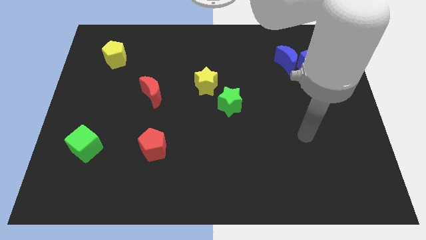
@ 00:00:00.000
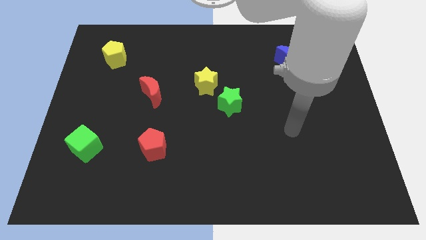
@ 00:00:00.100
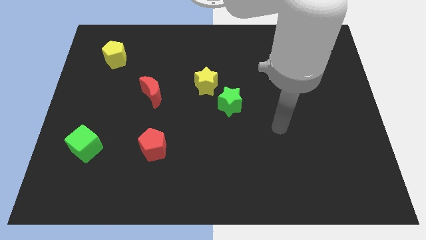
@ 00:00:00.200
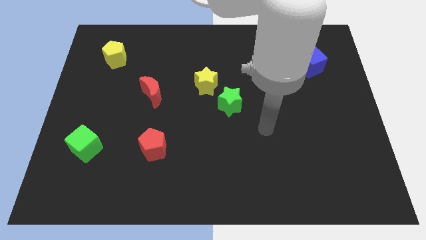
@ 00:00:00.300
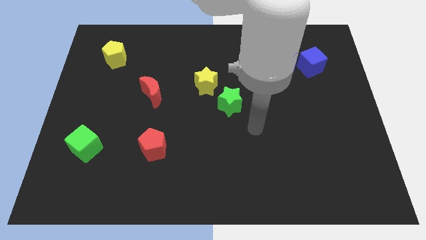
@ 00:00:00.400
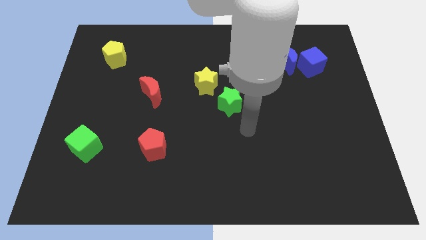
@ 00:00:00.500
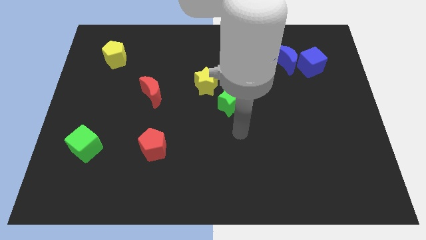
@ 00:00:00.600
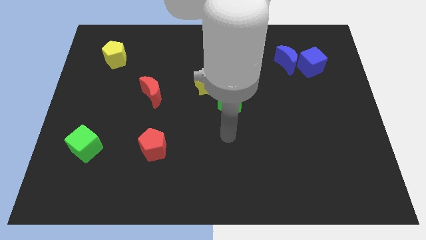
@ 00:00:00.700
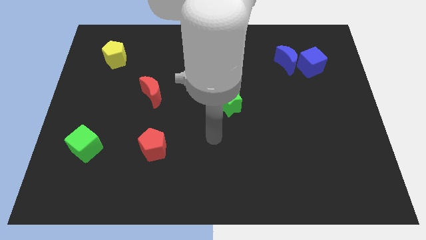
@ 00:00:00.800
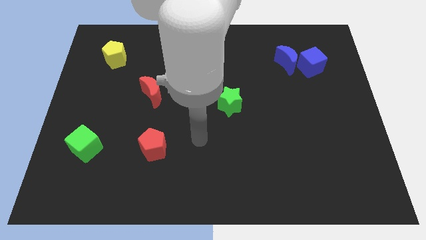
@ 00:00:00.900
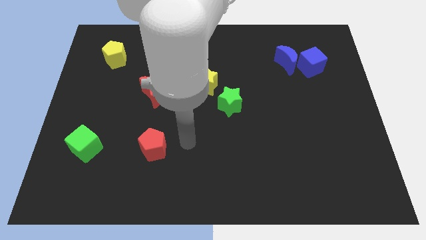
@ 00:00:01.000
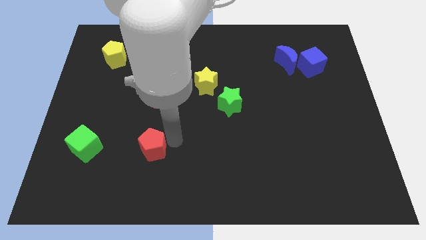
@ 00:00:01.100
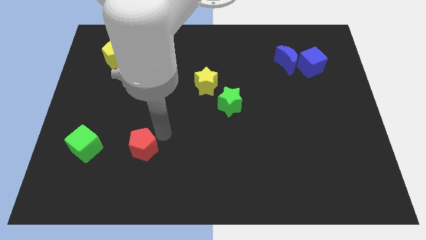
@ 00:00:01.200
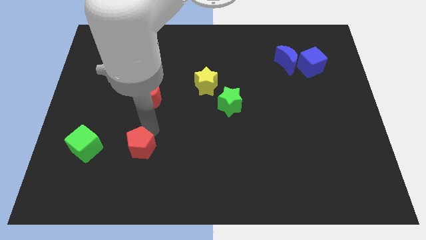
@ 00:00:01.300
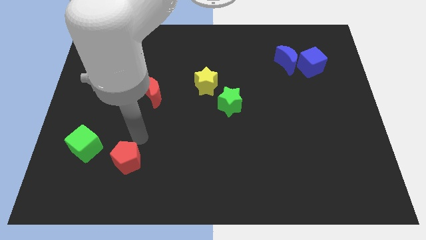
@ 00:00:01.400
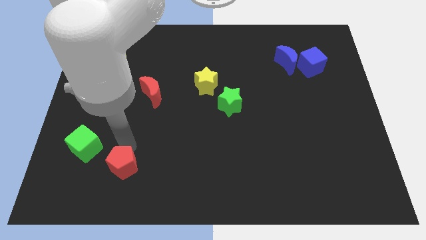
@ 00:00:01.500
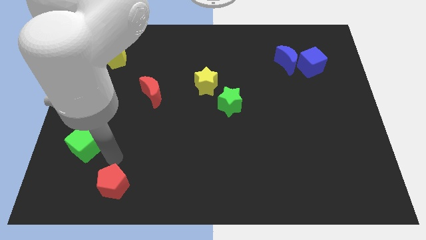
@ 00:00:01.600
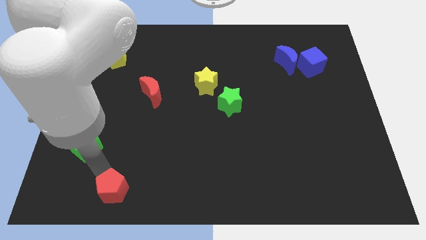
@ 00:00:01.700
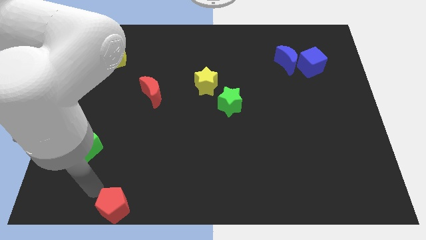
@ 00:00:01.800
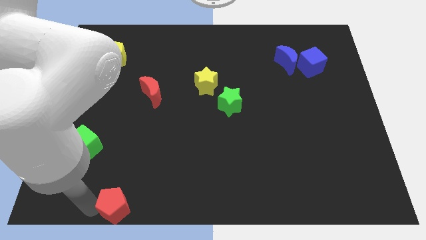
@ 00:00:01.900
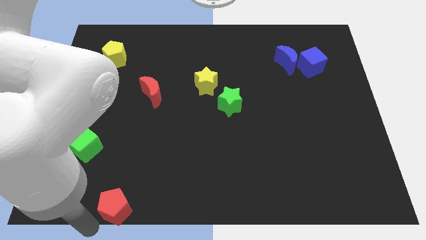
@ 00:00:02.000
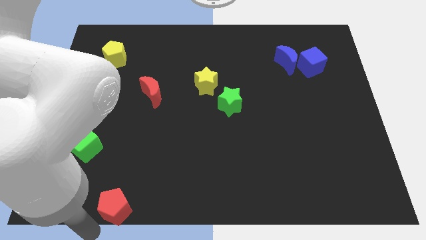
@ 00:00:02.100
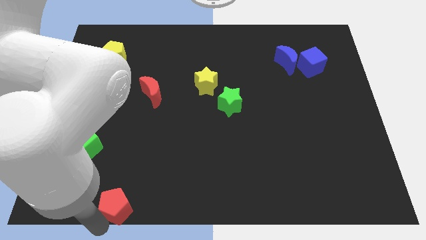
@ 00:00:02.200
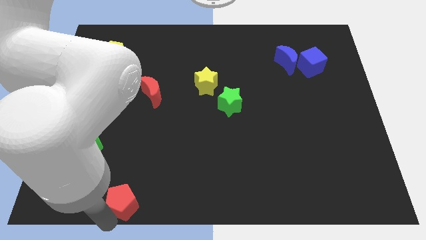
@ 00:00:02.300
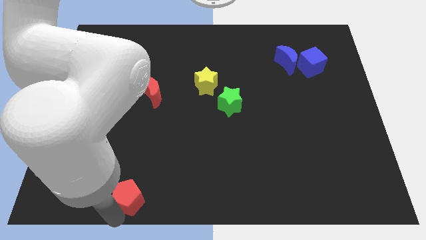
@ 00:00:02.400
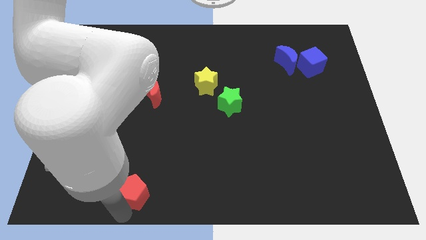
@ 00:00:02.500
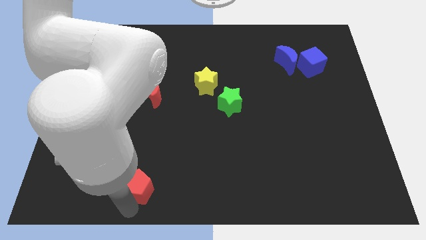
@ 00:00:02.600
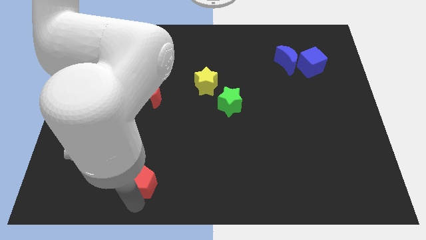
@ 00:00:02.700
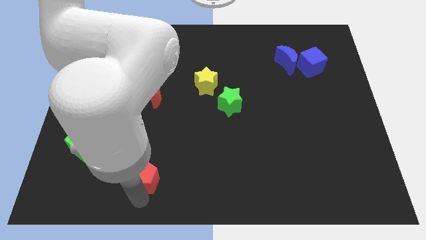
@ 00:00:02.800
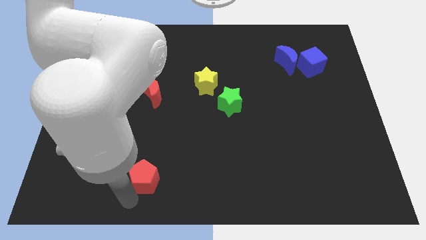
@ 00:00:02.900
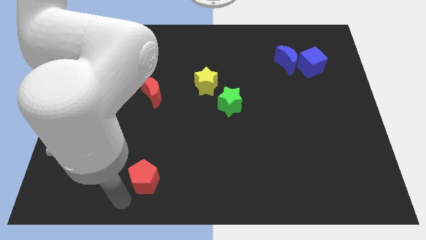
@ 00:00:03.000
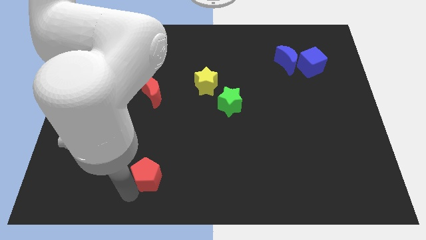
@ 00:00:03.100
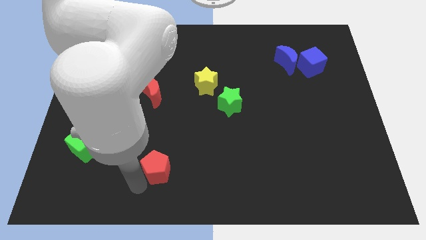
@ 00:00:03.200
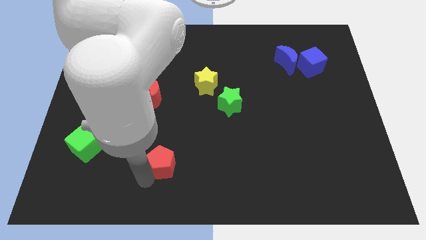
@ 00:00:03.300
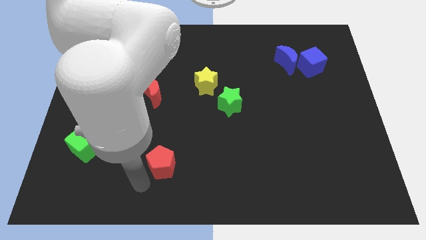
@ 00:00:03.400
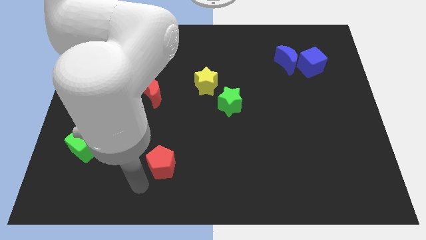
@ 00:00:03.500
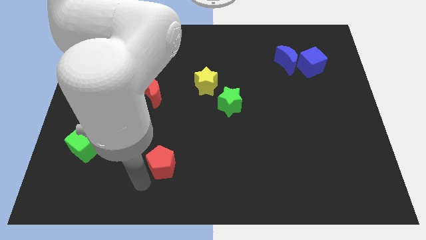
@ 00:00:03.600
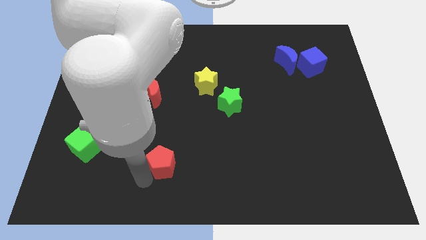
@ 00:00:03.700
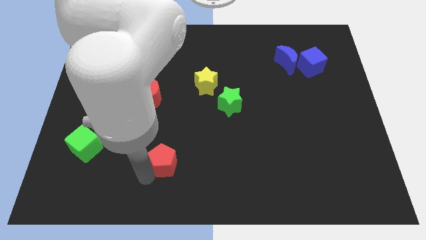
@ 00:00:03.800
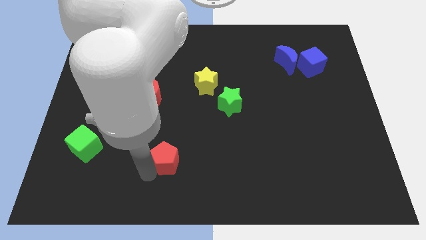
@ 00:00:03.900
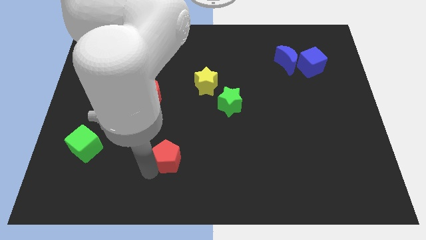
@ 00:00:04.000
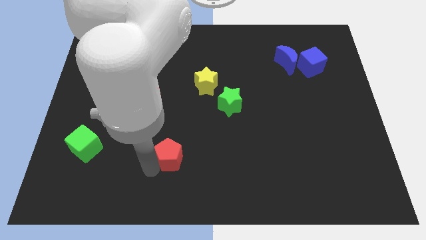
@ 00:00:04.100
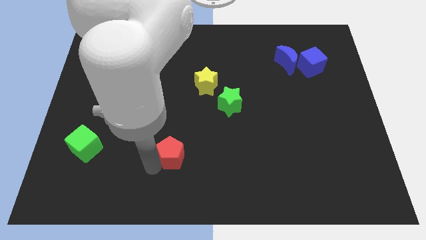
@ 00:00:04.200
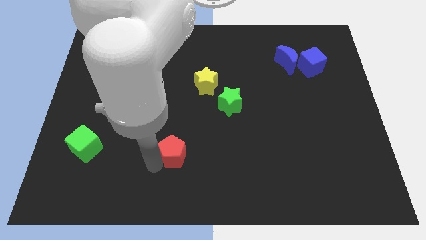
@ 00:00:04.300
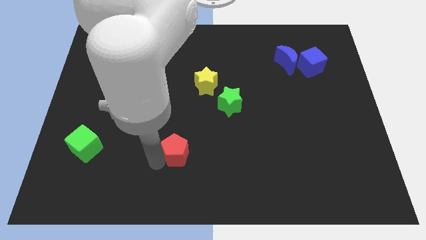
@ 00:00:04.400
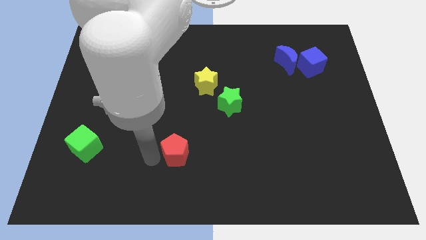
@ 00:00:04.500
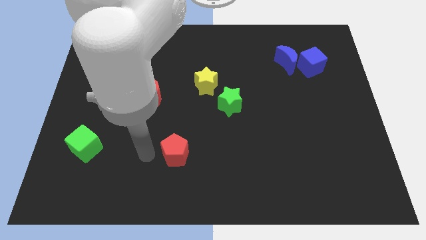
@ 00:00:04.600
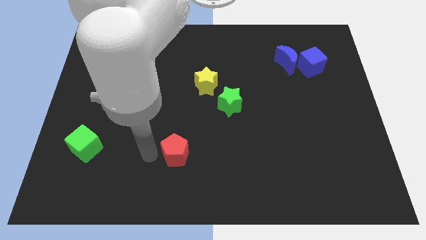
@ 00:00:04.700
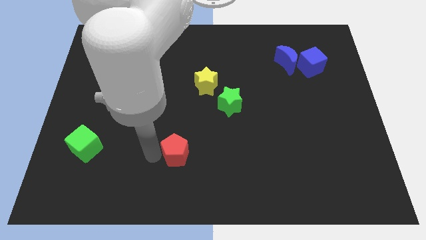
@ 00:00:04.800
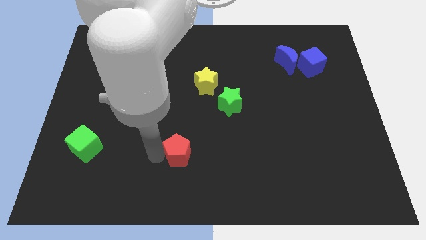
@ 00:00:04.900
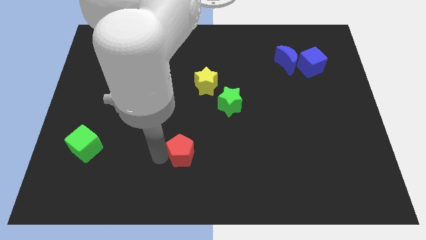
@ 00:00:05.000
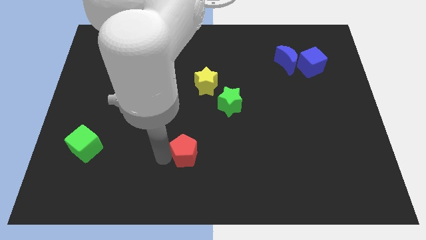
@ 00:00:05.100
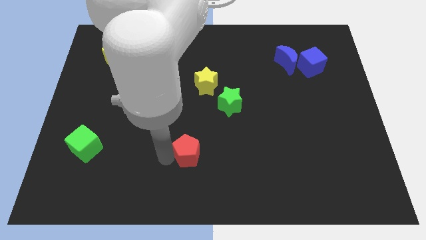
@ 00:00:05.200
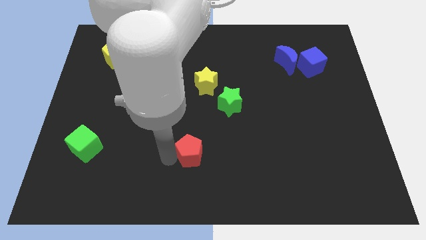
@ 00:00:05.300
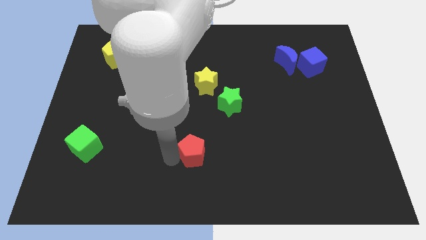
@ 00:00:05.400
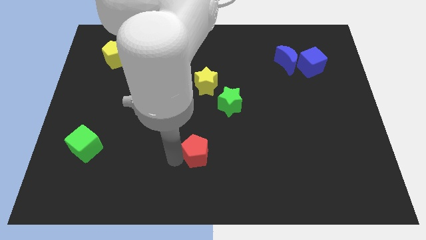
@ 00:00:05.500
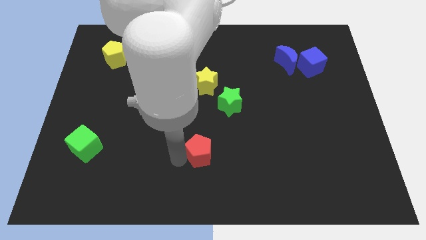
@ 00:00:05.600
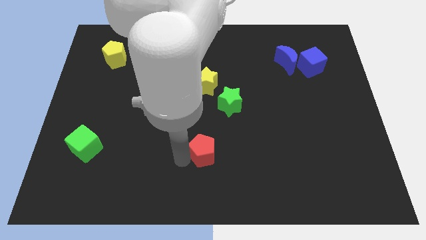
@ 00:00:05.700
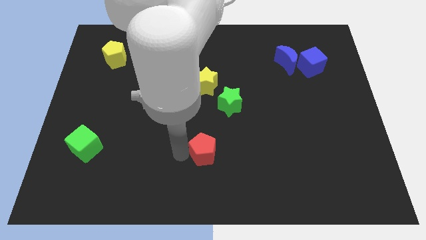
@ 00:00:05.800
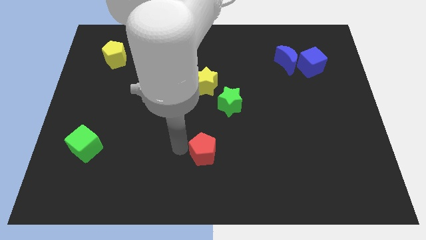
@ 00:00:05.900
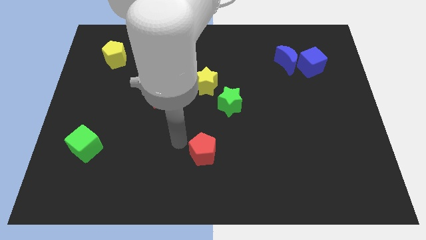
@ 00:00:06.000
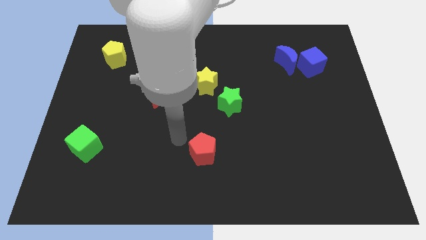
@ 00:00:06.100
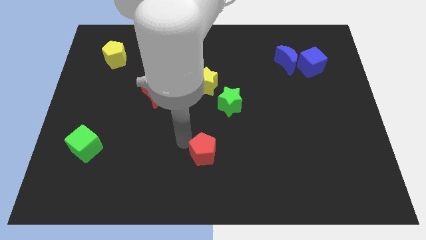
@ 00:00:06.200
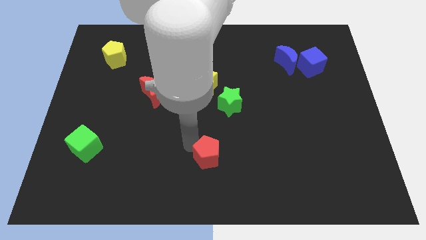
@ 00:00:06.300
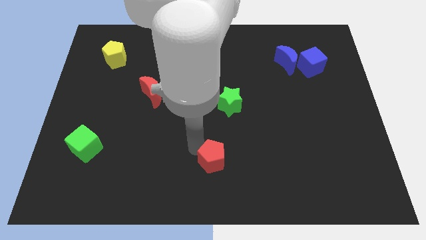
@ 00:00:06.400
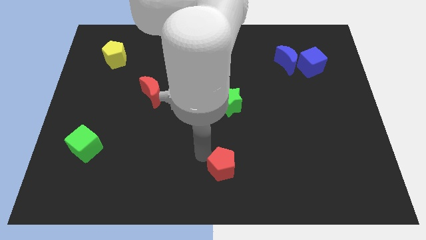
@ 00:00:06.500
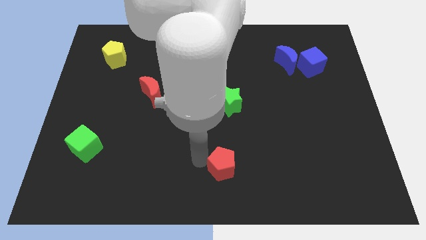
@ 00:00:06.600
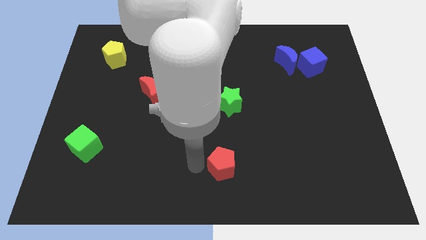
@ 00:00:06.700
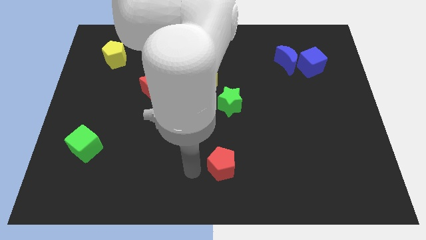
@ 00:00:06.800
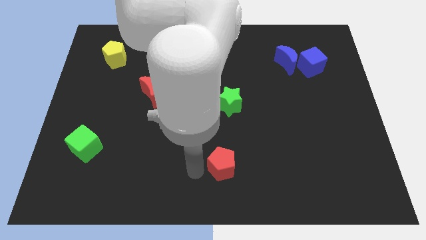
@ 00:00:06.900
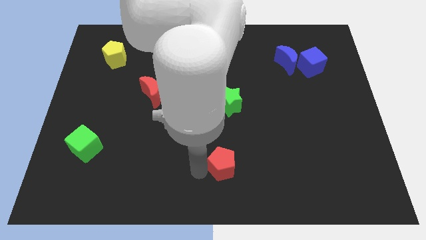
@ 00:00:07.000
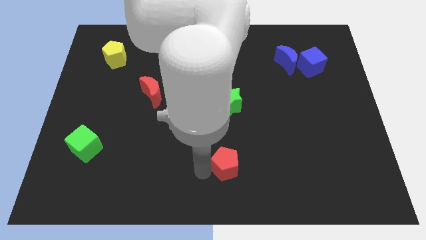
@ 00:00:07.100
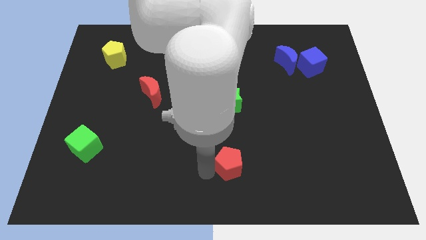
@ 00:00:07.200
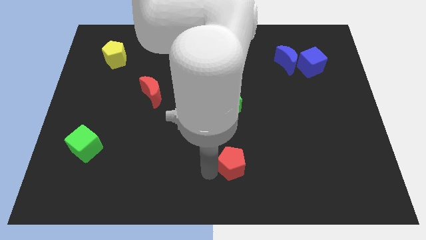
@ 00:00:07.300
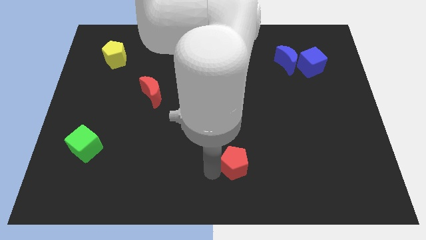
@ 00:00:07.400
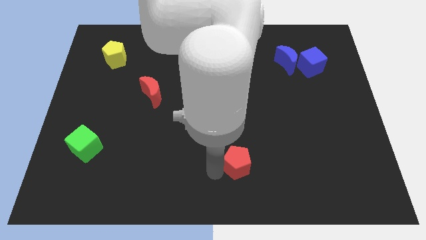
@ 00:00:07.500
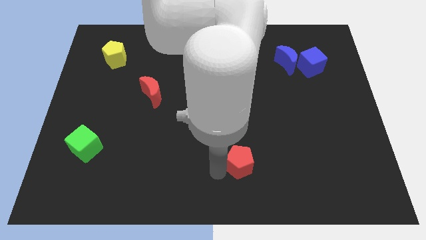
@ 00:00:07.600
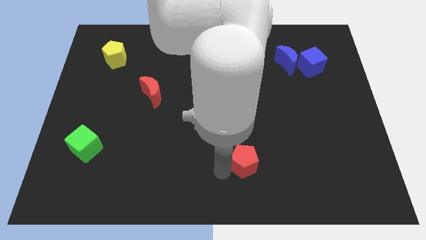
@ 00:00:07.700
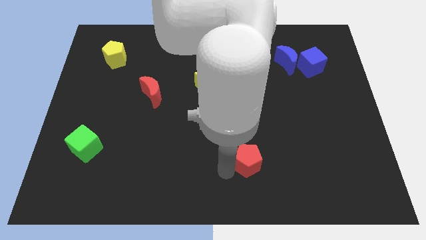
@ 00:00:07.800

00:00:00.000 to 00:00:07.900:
slide the red pentagon to the right
